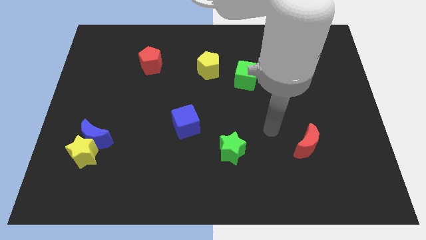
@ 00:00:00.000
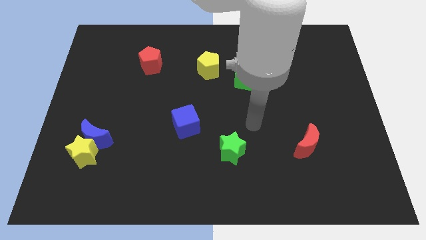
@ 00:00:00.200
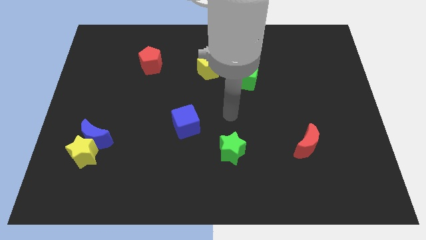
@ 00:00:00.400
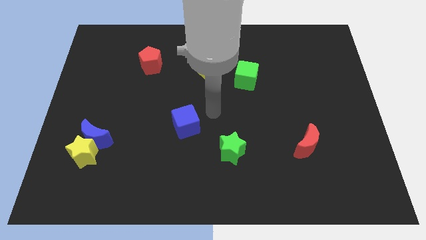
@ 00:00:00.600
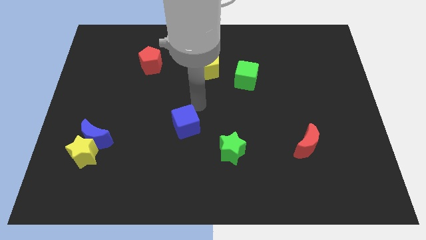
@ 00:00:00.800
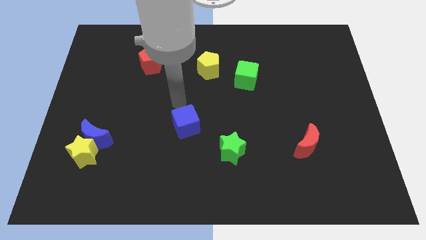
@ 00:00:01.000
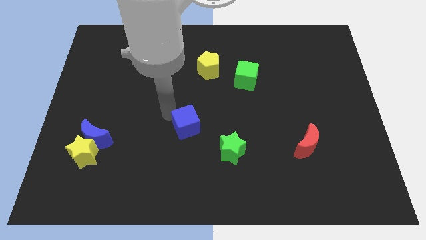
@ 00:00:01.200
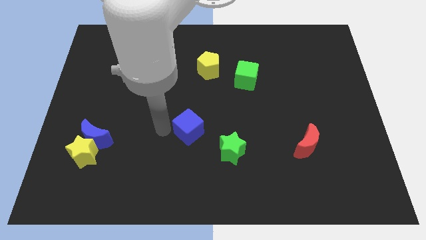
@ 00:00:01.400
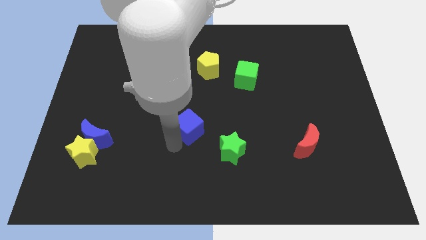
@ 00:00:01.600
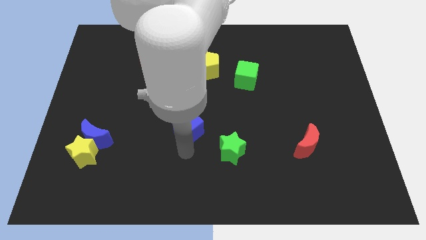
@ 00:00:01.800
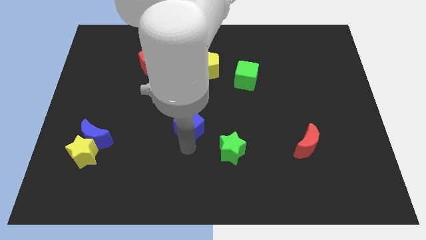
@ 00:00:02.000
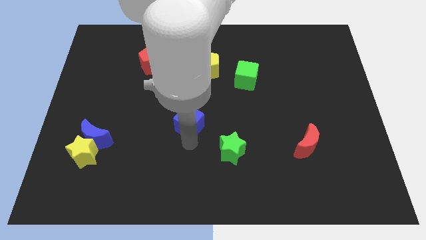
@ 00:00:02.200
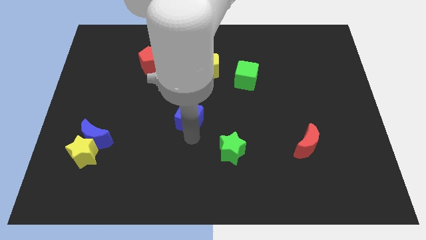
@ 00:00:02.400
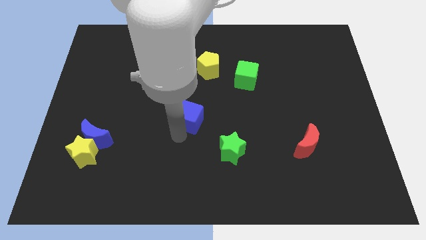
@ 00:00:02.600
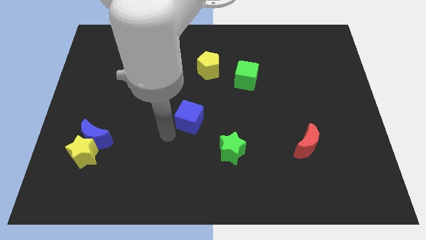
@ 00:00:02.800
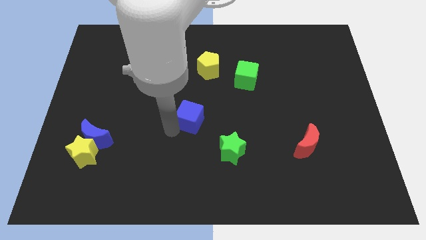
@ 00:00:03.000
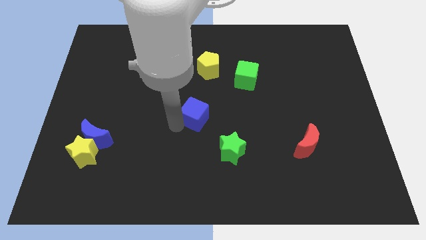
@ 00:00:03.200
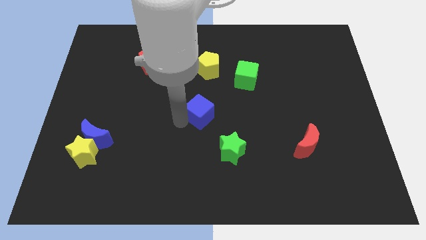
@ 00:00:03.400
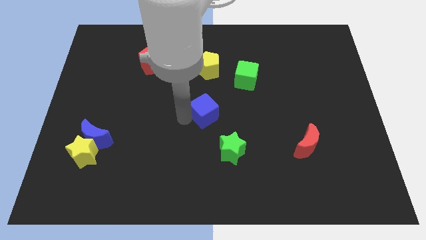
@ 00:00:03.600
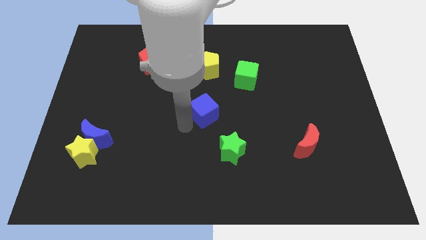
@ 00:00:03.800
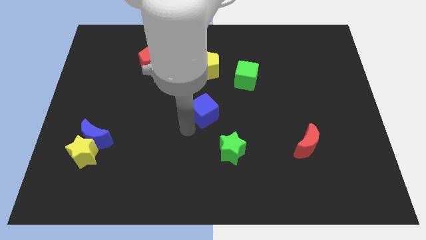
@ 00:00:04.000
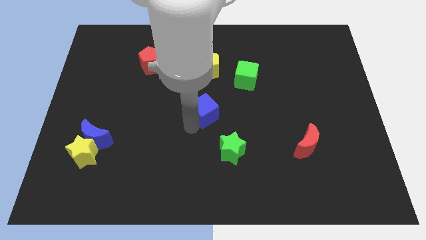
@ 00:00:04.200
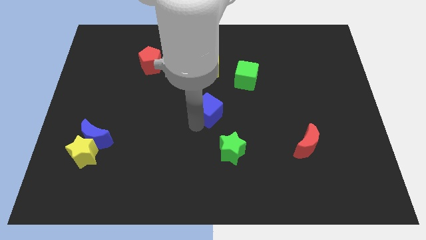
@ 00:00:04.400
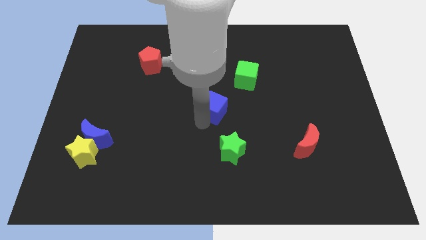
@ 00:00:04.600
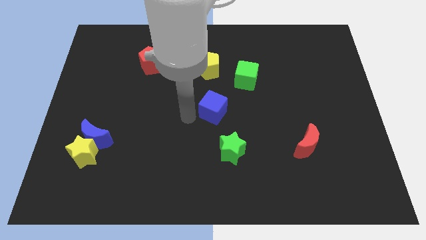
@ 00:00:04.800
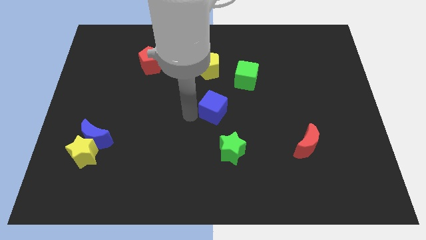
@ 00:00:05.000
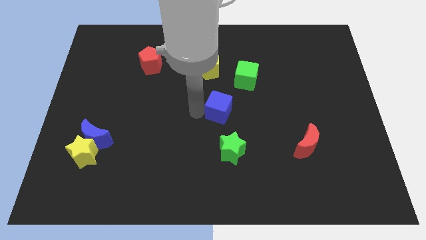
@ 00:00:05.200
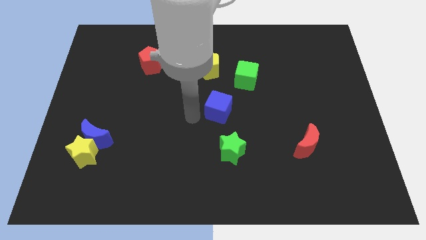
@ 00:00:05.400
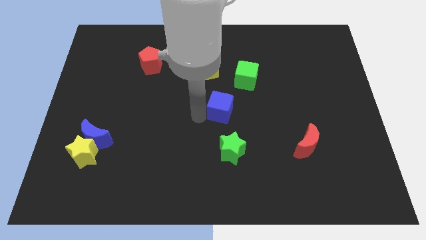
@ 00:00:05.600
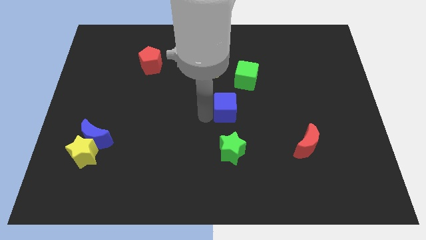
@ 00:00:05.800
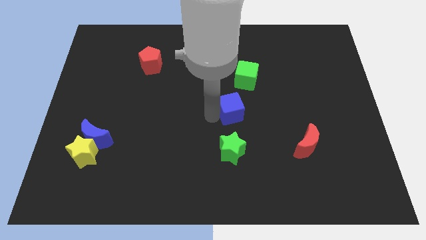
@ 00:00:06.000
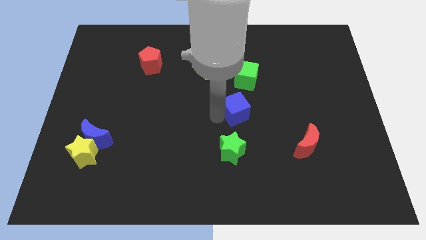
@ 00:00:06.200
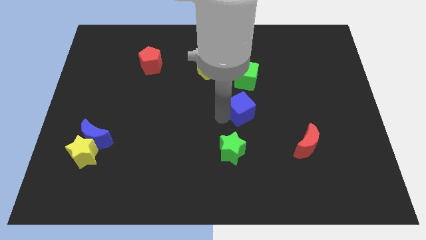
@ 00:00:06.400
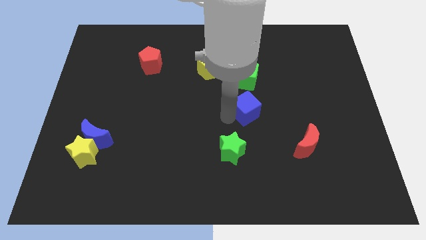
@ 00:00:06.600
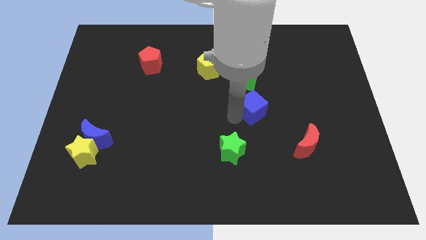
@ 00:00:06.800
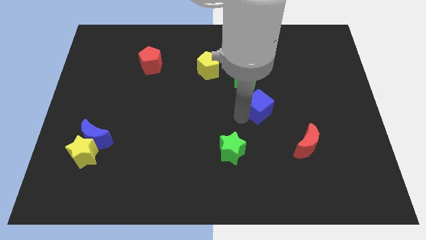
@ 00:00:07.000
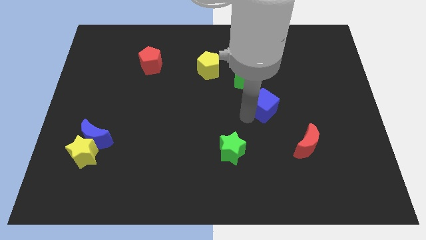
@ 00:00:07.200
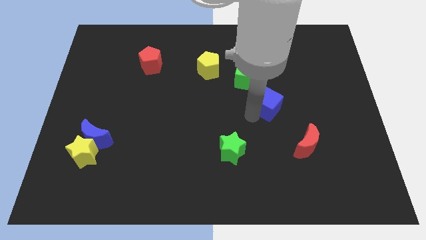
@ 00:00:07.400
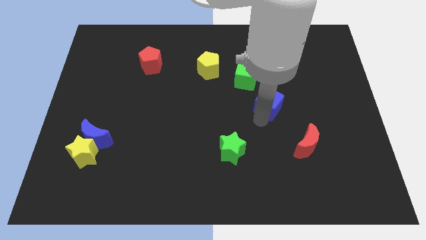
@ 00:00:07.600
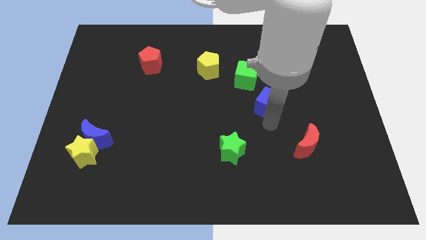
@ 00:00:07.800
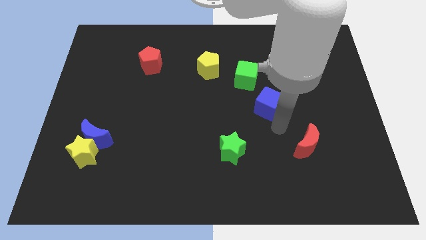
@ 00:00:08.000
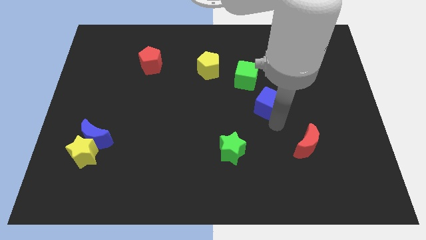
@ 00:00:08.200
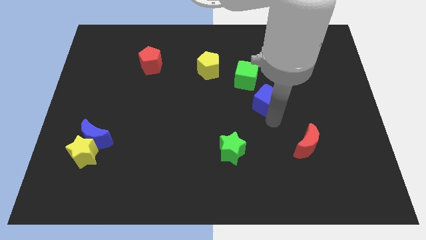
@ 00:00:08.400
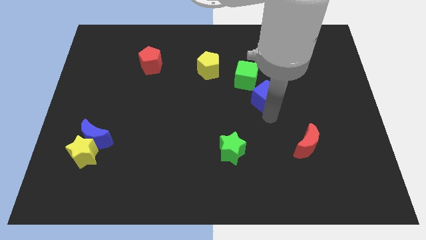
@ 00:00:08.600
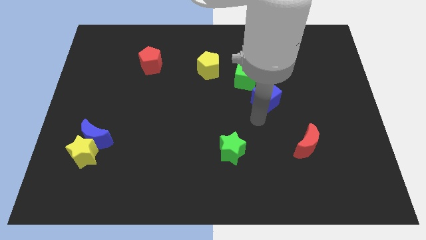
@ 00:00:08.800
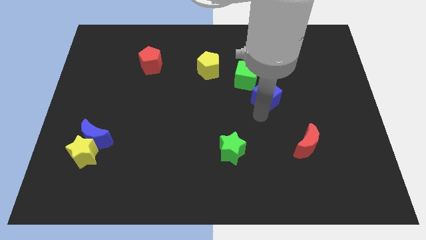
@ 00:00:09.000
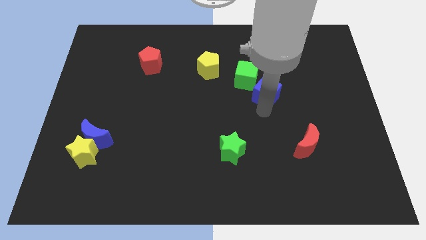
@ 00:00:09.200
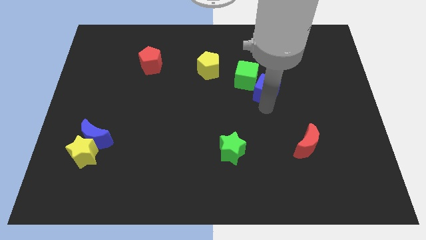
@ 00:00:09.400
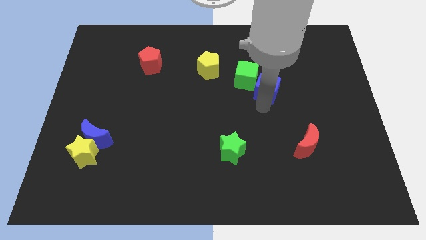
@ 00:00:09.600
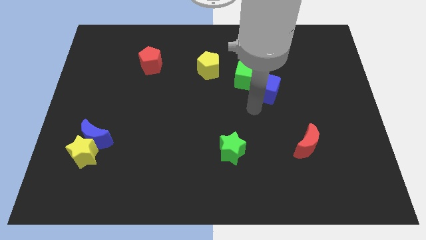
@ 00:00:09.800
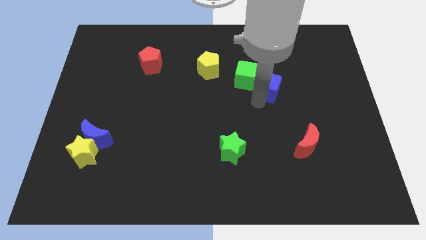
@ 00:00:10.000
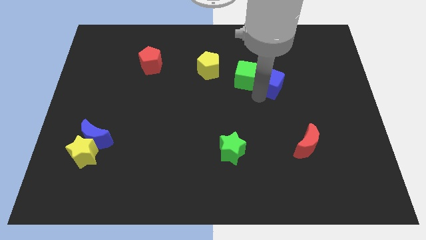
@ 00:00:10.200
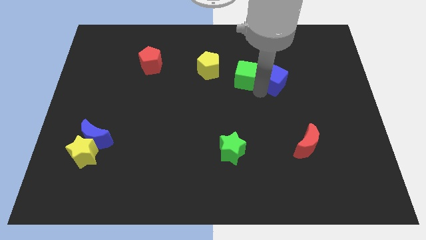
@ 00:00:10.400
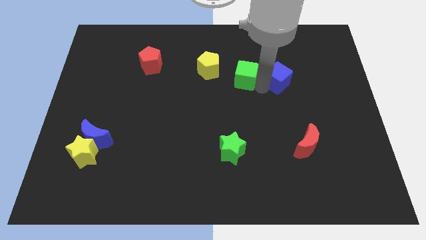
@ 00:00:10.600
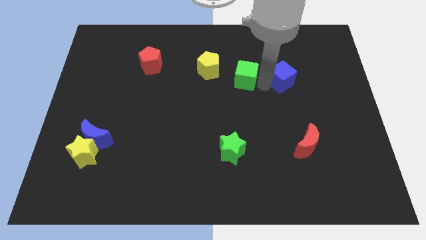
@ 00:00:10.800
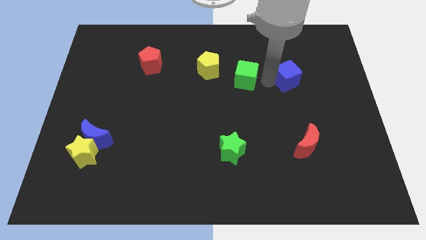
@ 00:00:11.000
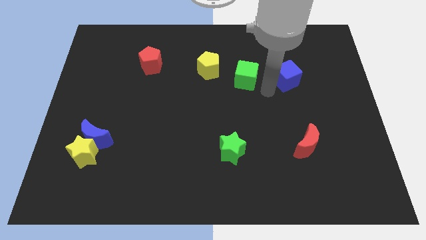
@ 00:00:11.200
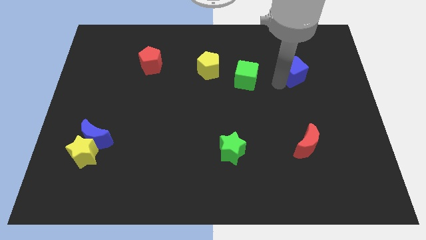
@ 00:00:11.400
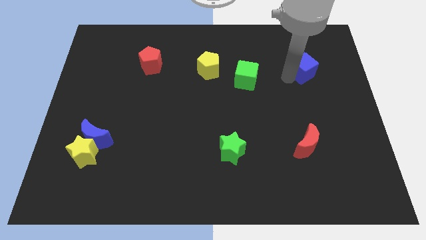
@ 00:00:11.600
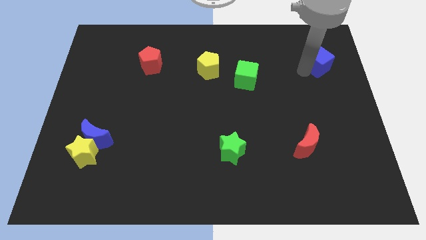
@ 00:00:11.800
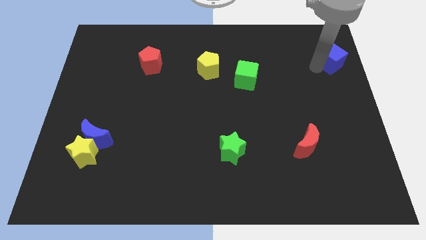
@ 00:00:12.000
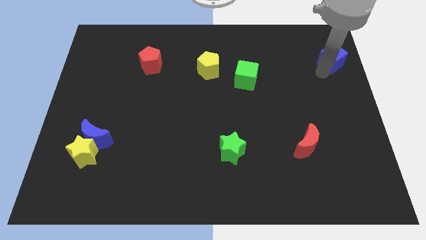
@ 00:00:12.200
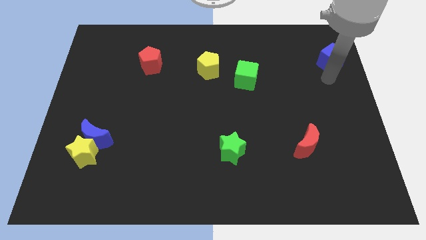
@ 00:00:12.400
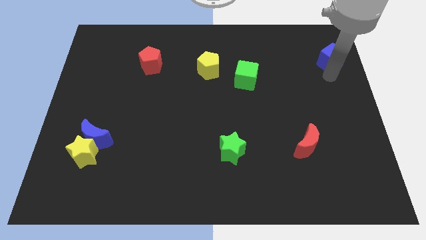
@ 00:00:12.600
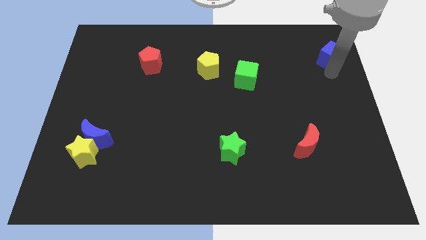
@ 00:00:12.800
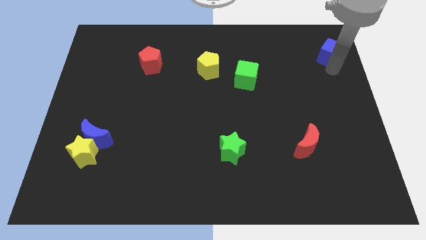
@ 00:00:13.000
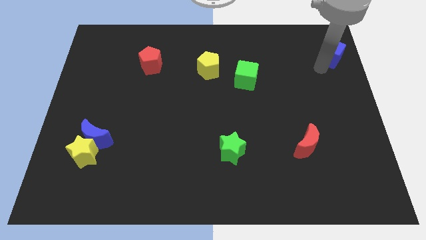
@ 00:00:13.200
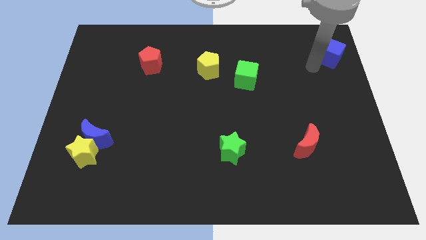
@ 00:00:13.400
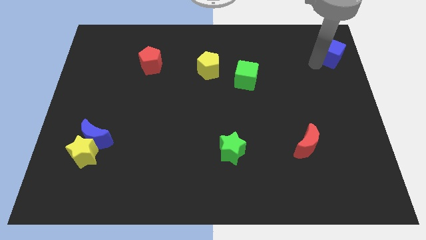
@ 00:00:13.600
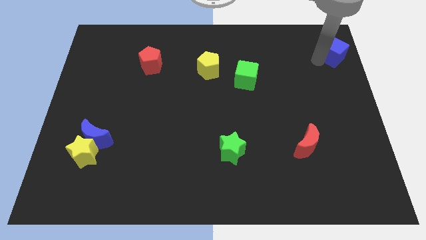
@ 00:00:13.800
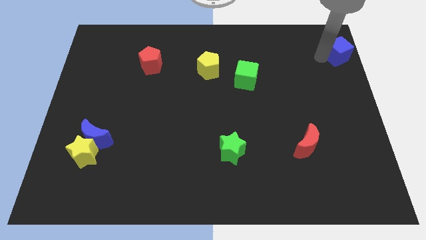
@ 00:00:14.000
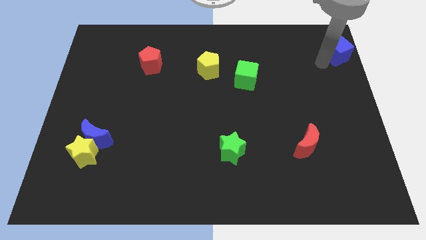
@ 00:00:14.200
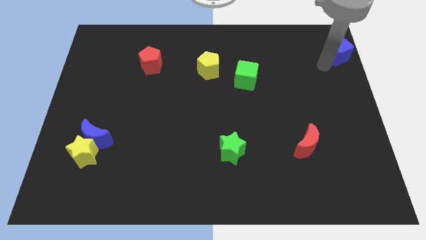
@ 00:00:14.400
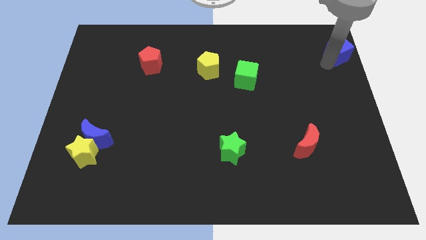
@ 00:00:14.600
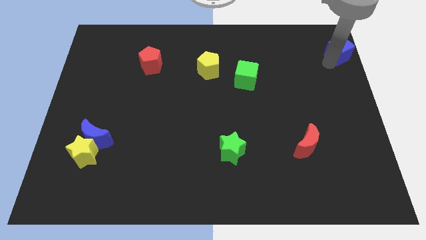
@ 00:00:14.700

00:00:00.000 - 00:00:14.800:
push the blue cube to the top right of the board
